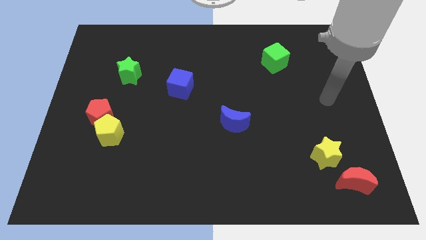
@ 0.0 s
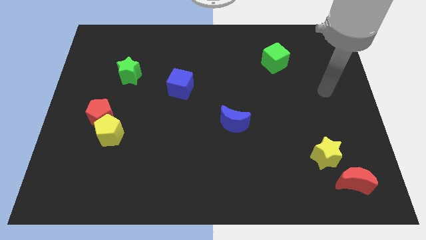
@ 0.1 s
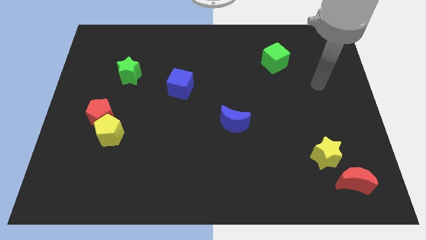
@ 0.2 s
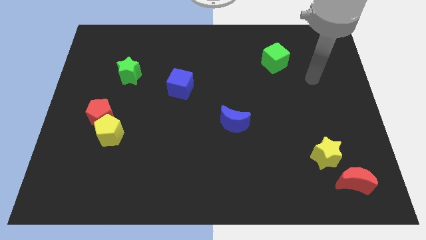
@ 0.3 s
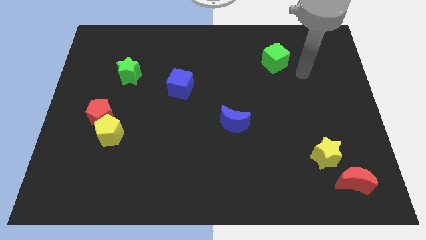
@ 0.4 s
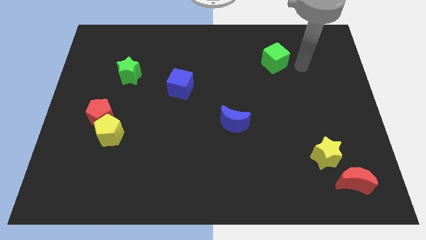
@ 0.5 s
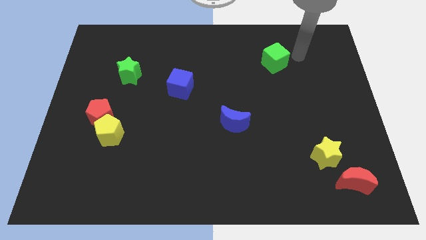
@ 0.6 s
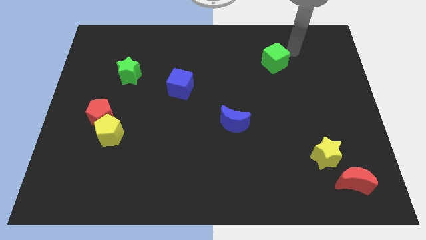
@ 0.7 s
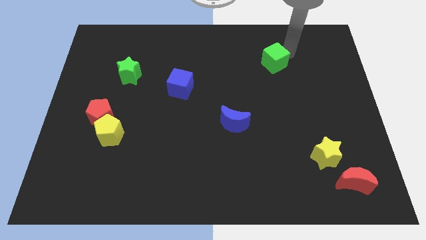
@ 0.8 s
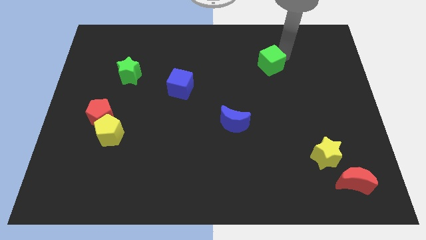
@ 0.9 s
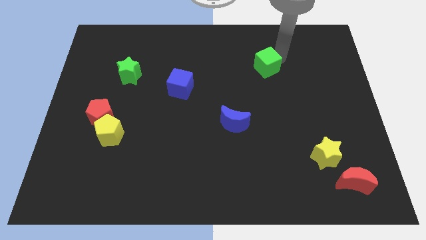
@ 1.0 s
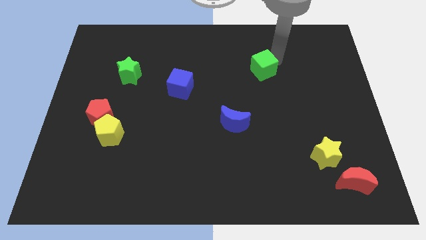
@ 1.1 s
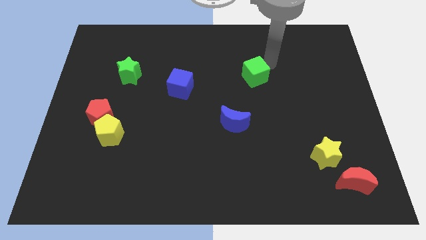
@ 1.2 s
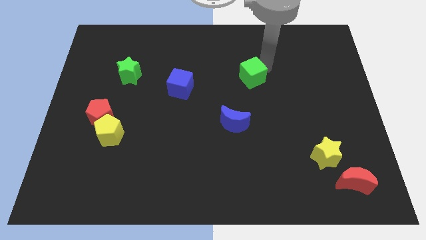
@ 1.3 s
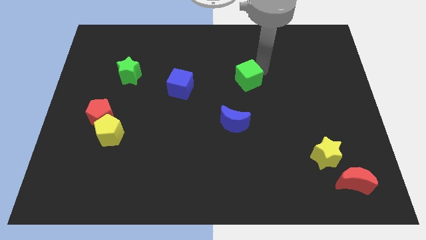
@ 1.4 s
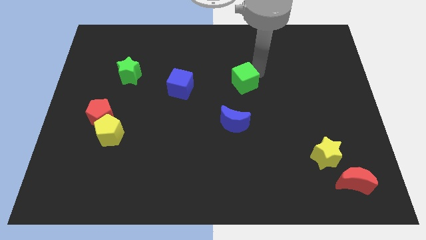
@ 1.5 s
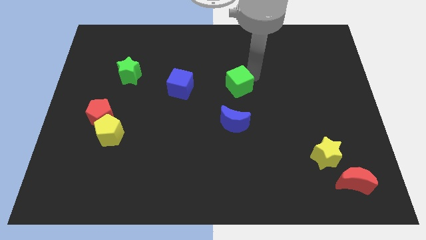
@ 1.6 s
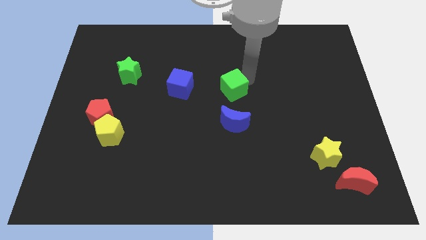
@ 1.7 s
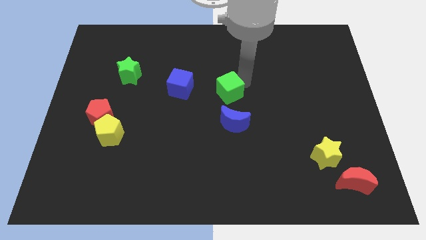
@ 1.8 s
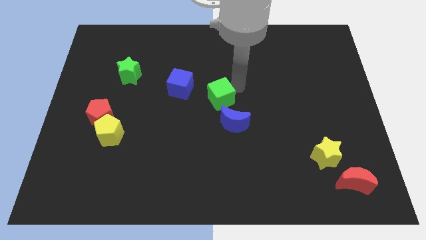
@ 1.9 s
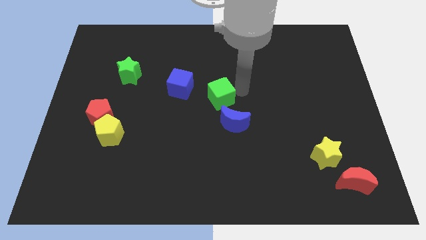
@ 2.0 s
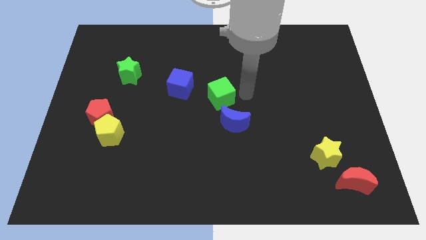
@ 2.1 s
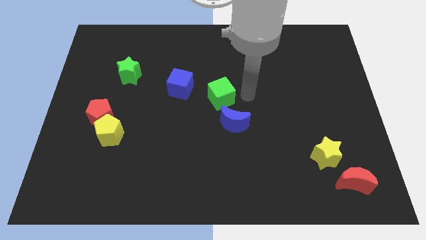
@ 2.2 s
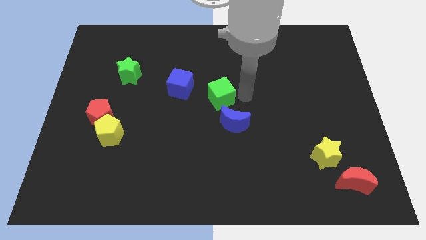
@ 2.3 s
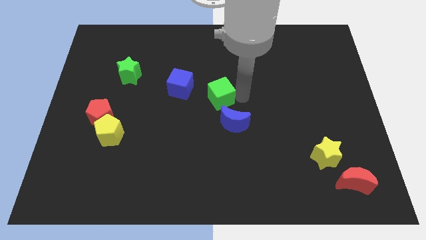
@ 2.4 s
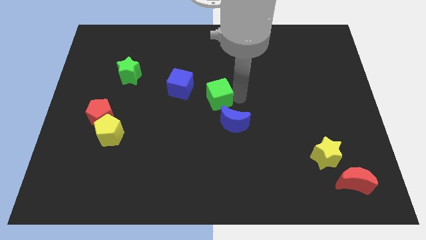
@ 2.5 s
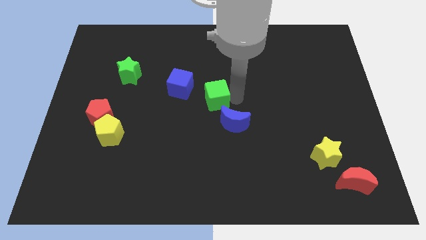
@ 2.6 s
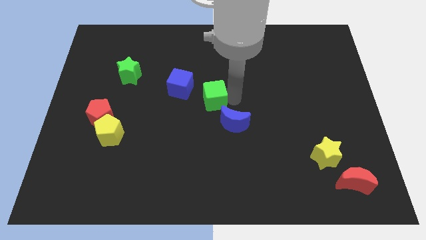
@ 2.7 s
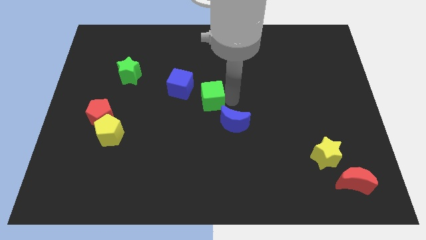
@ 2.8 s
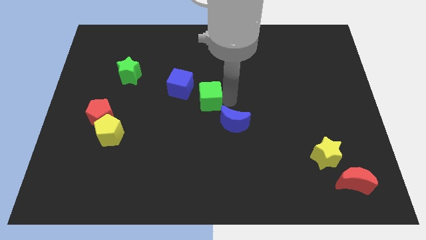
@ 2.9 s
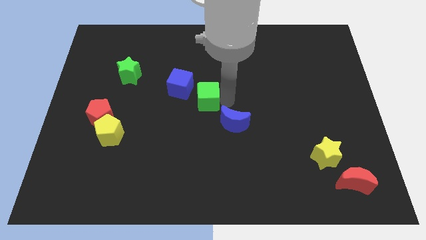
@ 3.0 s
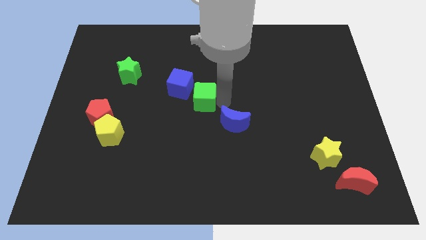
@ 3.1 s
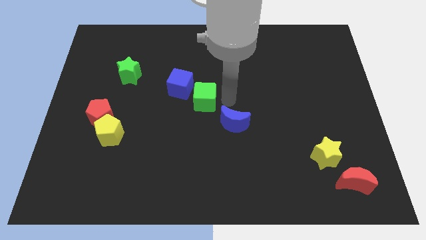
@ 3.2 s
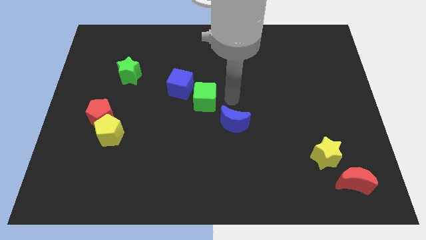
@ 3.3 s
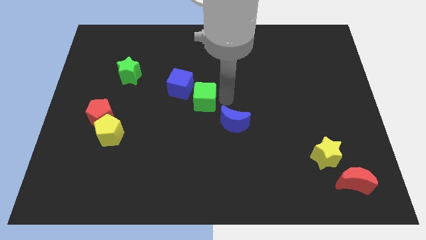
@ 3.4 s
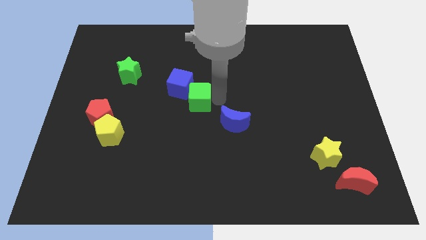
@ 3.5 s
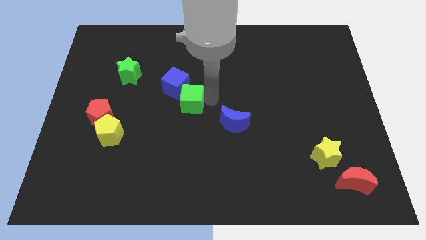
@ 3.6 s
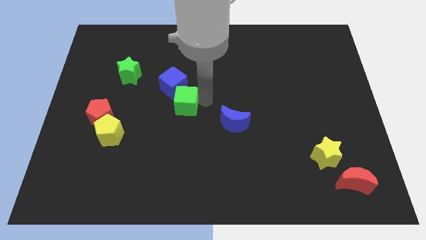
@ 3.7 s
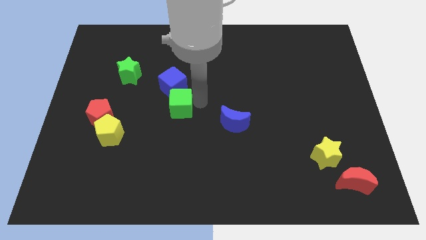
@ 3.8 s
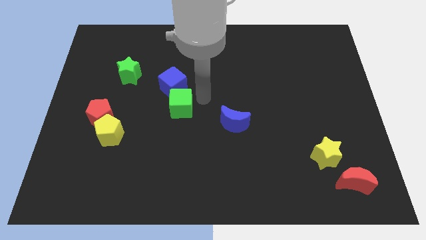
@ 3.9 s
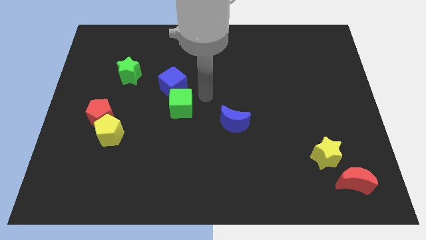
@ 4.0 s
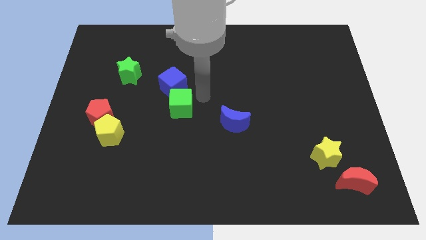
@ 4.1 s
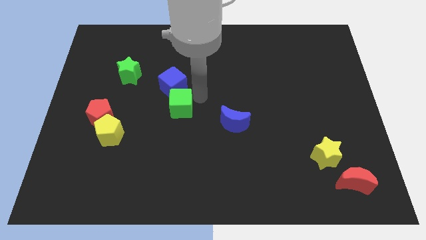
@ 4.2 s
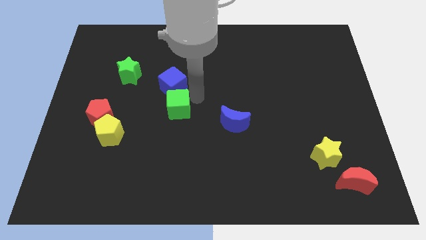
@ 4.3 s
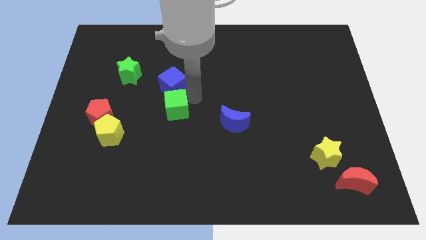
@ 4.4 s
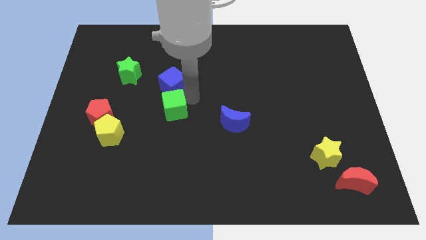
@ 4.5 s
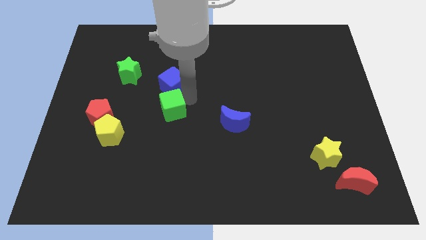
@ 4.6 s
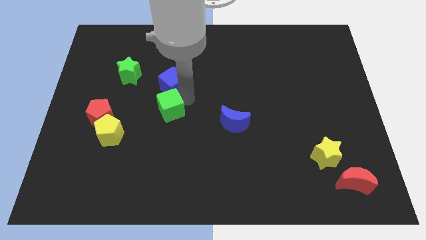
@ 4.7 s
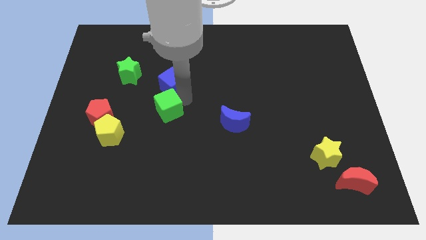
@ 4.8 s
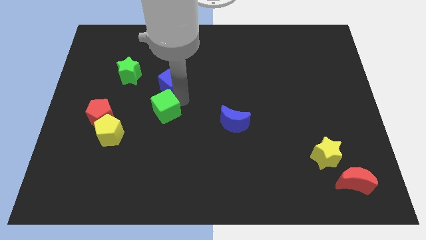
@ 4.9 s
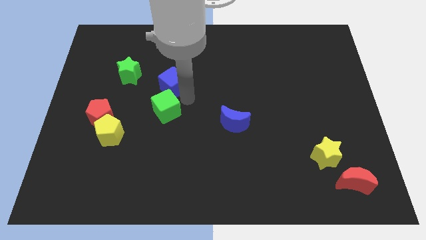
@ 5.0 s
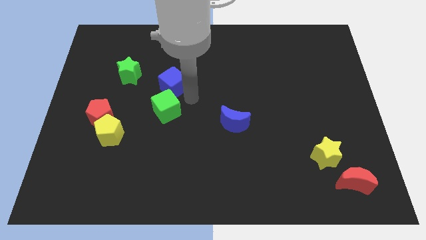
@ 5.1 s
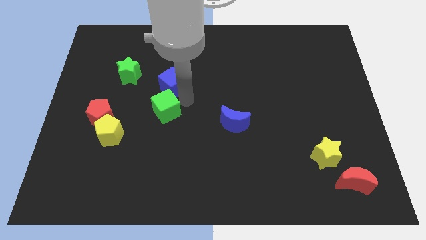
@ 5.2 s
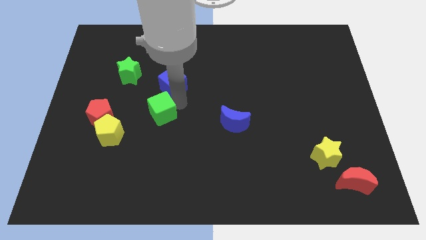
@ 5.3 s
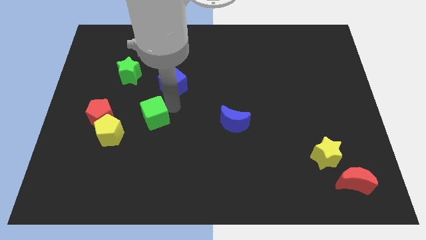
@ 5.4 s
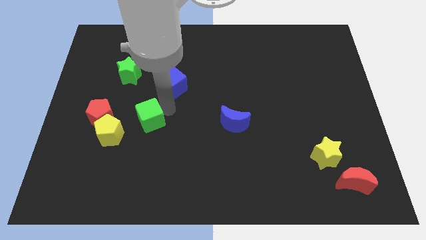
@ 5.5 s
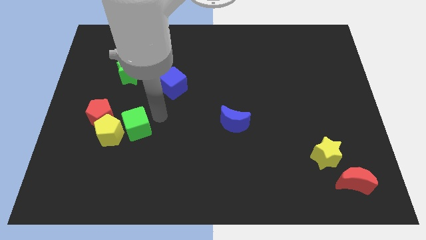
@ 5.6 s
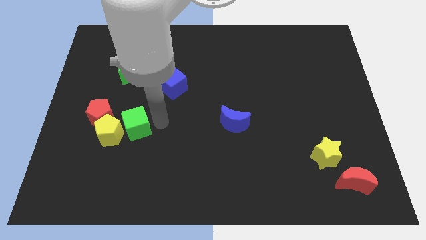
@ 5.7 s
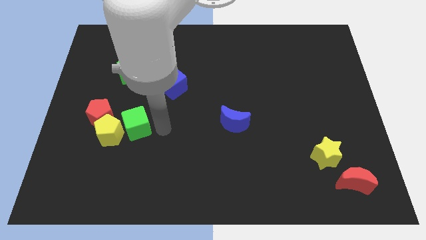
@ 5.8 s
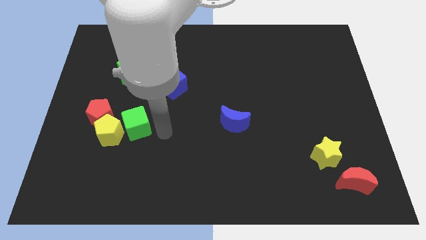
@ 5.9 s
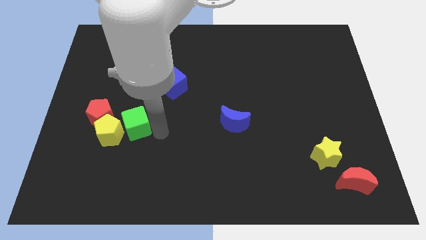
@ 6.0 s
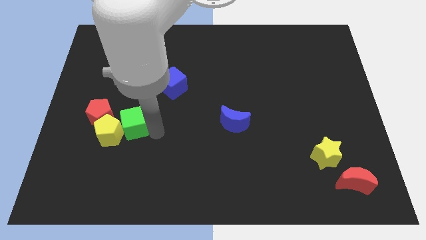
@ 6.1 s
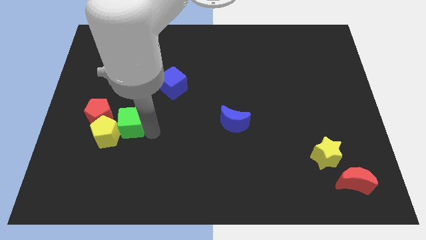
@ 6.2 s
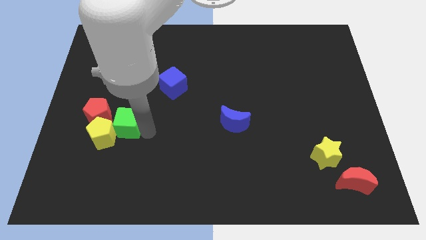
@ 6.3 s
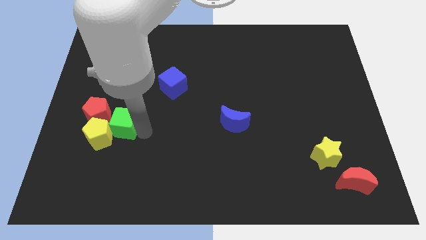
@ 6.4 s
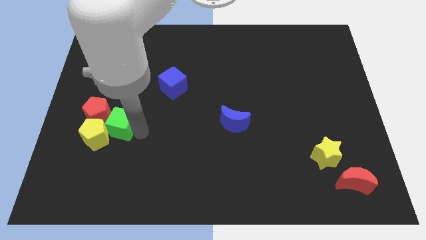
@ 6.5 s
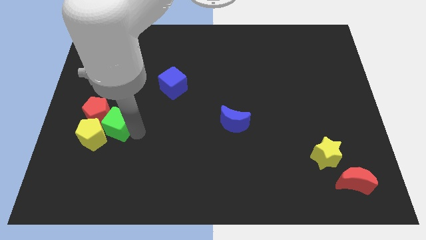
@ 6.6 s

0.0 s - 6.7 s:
move the green cube close to the red pentagon

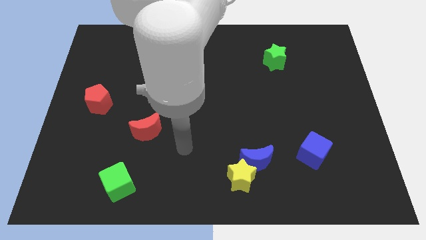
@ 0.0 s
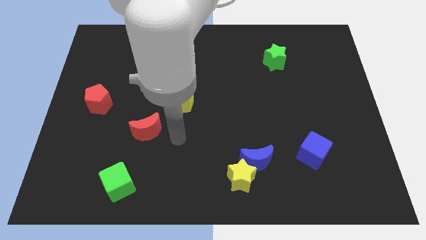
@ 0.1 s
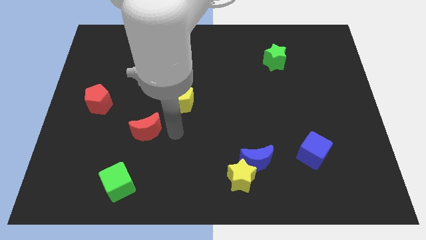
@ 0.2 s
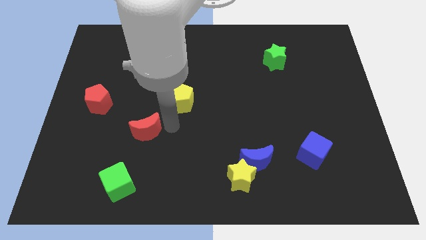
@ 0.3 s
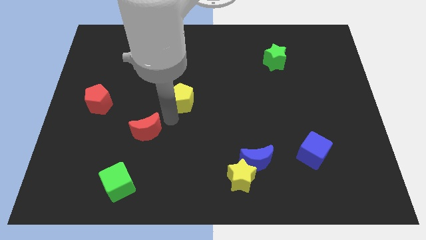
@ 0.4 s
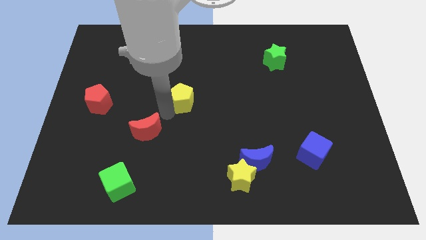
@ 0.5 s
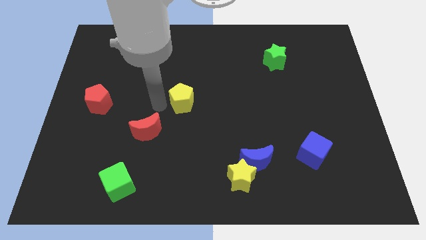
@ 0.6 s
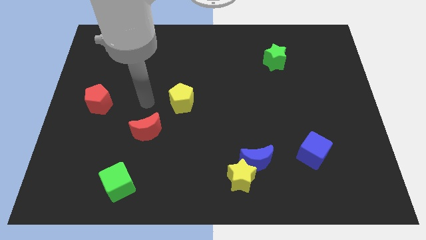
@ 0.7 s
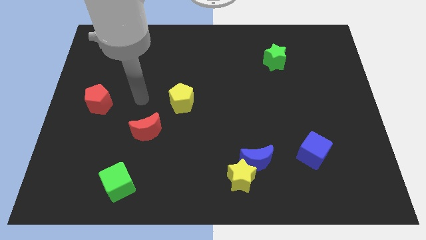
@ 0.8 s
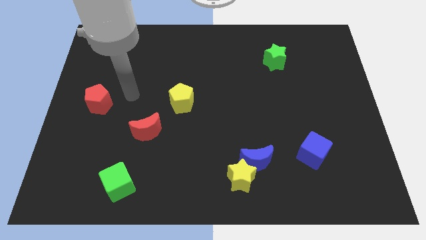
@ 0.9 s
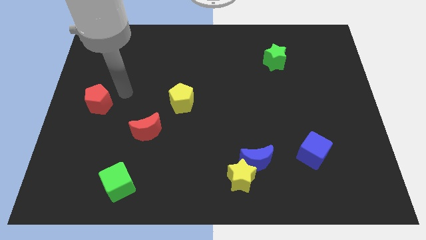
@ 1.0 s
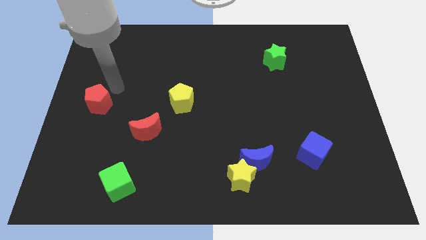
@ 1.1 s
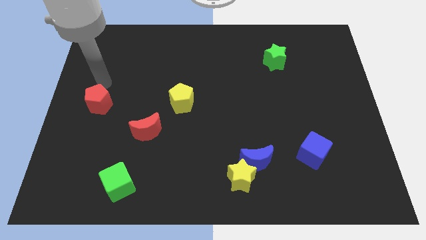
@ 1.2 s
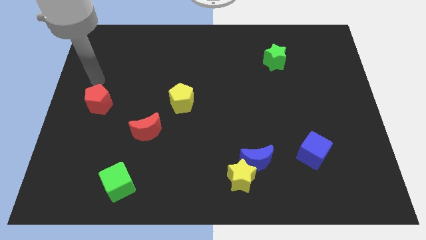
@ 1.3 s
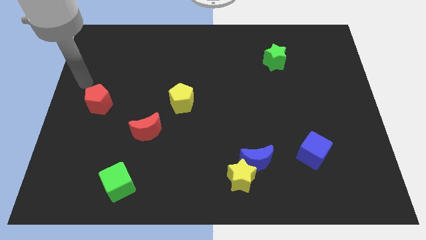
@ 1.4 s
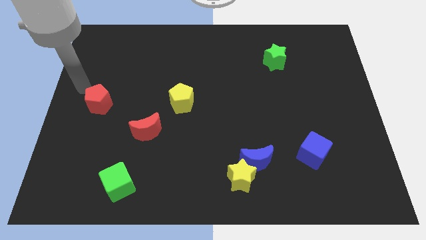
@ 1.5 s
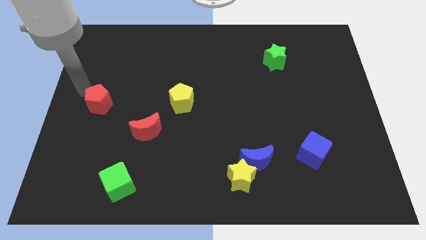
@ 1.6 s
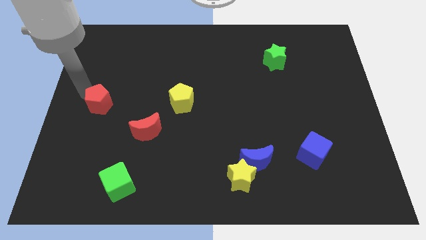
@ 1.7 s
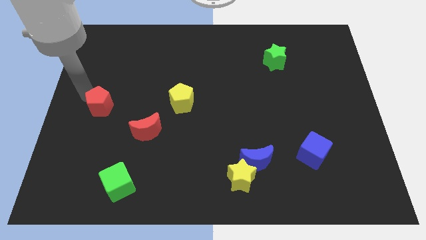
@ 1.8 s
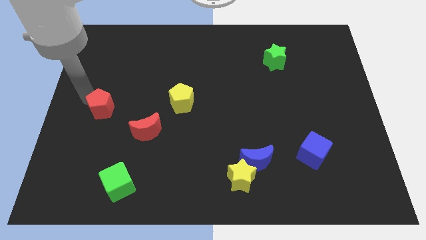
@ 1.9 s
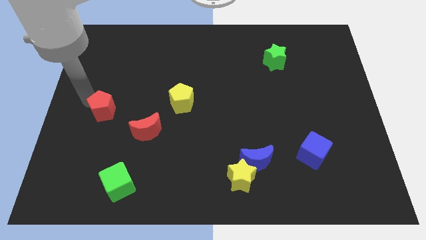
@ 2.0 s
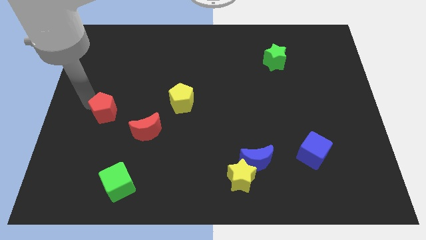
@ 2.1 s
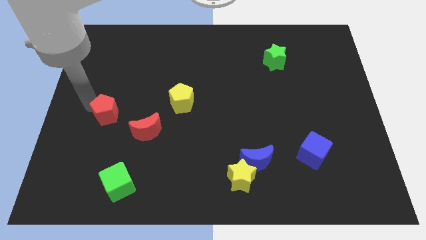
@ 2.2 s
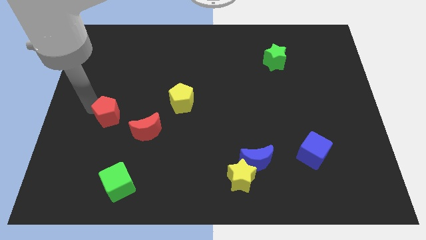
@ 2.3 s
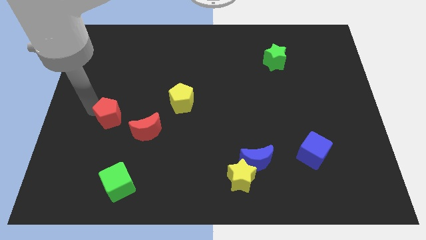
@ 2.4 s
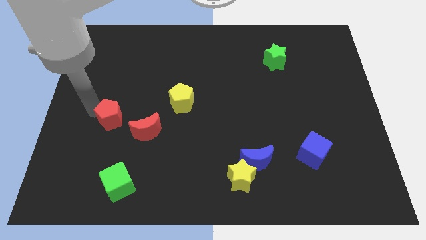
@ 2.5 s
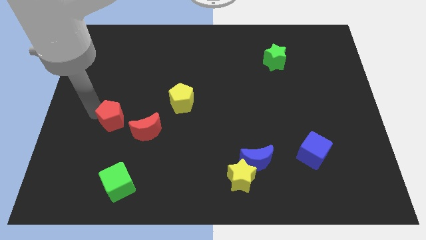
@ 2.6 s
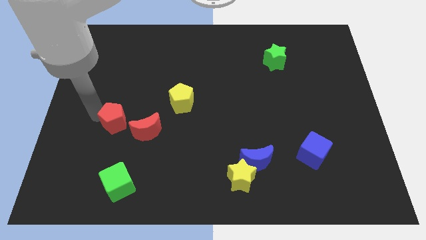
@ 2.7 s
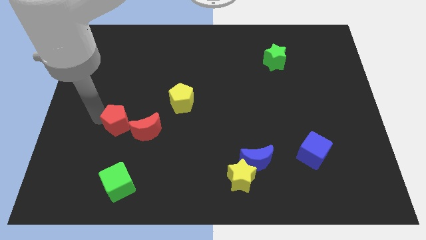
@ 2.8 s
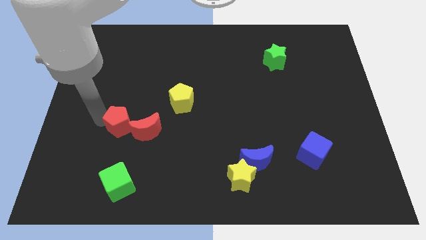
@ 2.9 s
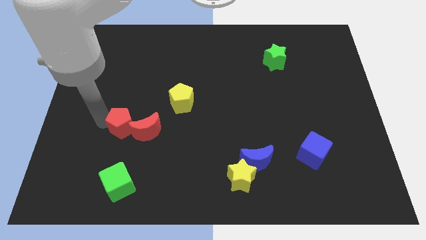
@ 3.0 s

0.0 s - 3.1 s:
push the red pentagon to the red moon
